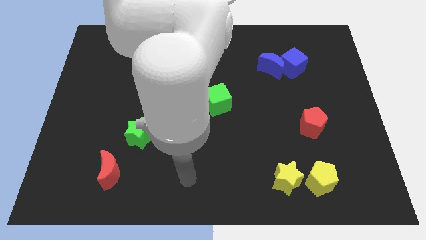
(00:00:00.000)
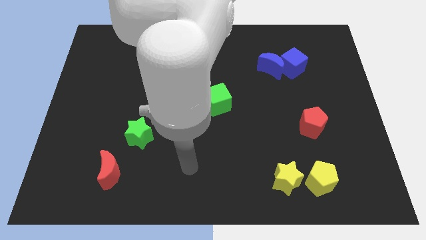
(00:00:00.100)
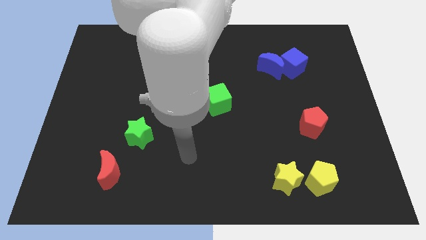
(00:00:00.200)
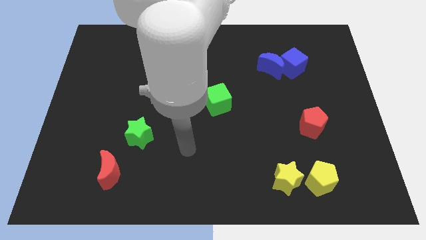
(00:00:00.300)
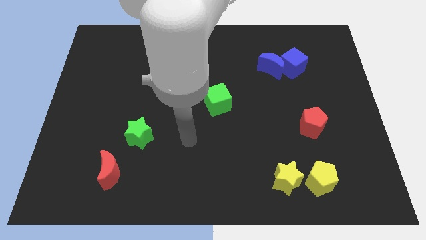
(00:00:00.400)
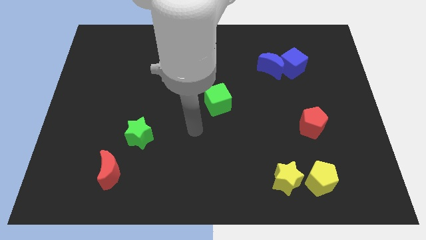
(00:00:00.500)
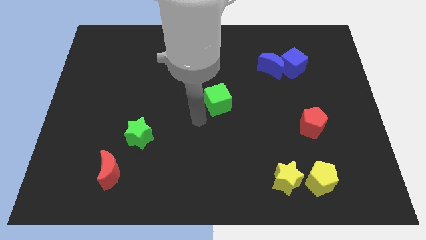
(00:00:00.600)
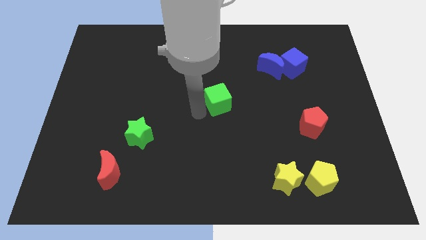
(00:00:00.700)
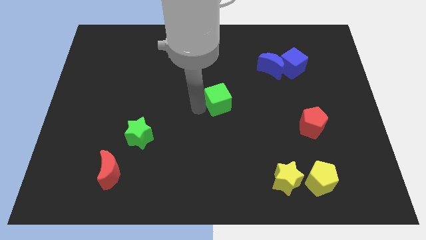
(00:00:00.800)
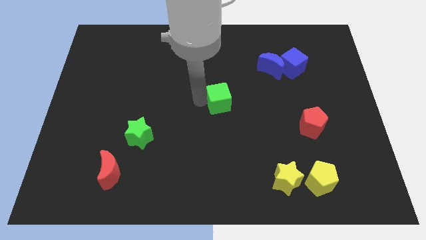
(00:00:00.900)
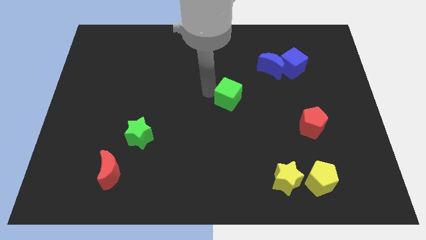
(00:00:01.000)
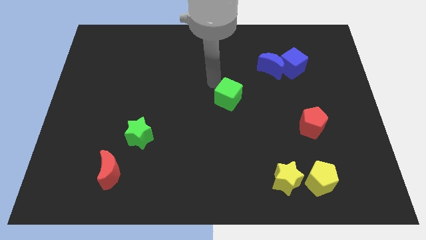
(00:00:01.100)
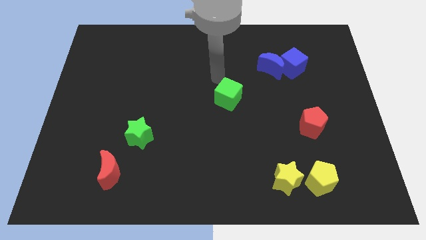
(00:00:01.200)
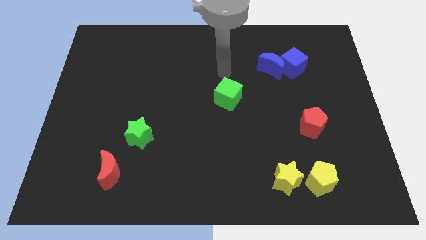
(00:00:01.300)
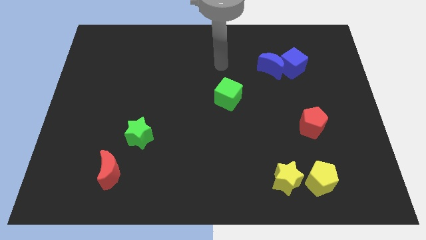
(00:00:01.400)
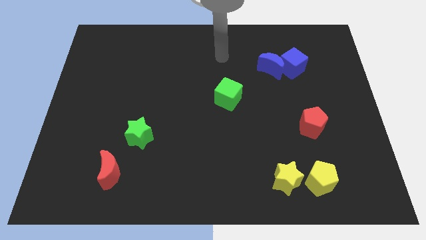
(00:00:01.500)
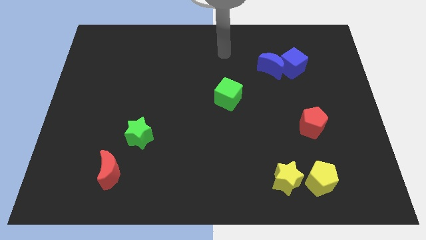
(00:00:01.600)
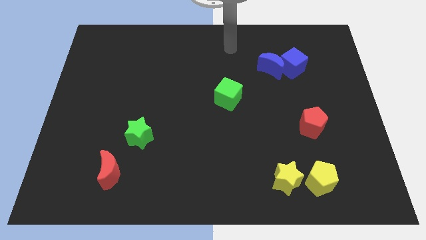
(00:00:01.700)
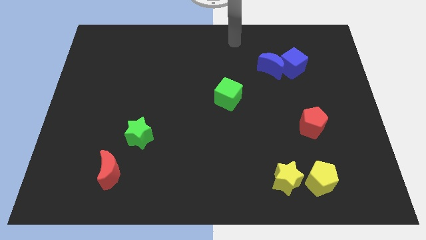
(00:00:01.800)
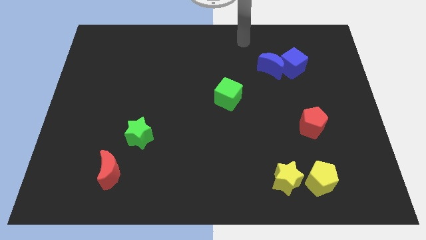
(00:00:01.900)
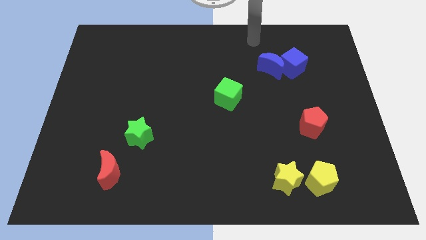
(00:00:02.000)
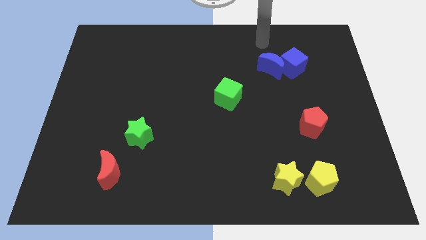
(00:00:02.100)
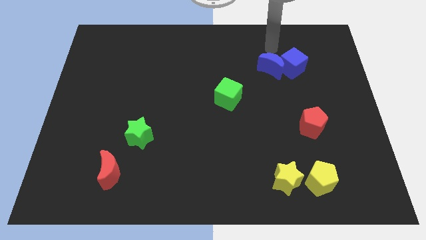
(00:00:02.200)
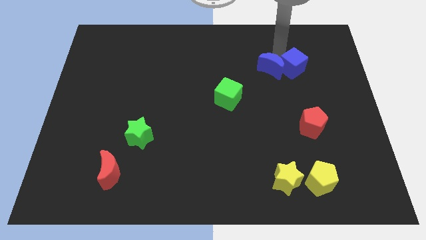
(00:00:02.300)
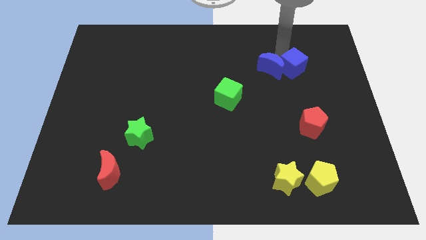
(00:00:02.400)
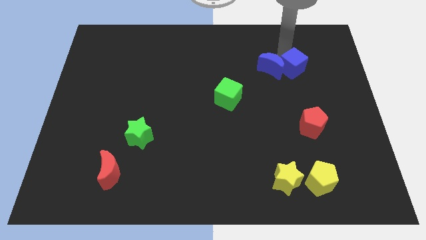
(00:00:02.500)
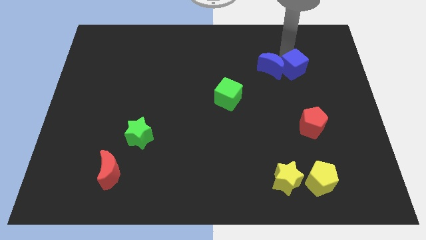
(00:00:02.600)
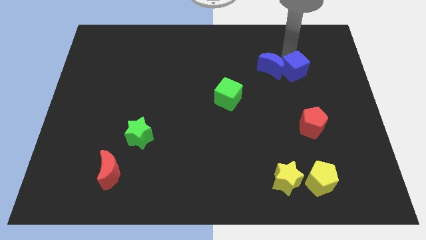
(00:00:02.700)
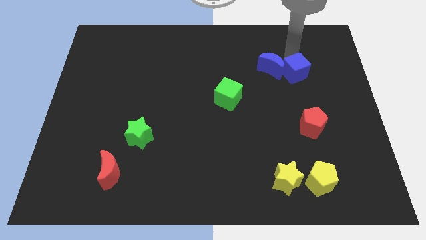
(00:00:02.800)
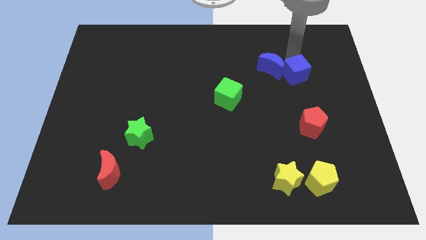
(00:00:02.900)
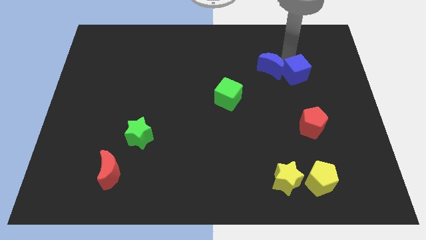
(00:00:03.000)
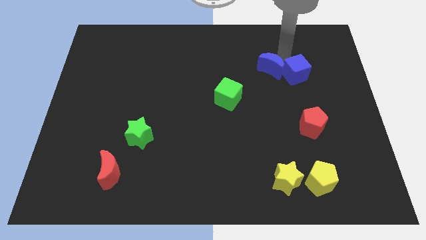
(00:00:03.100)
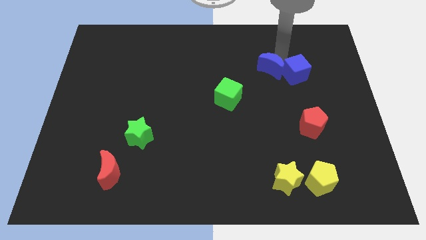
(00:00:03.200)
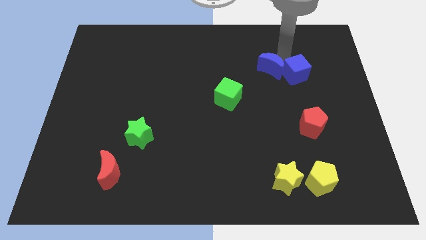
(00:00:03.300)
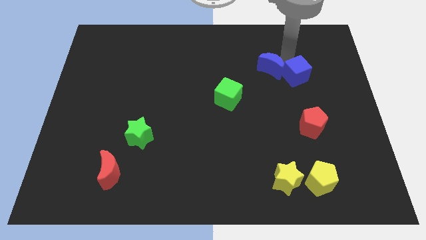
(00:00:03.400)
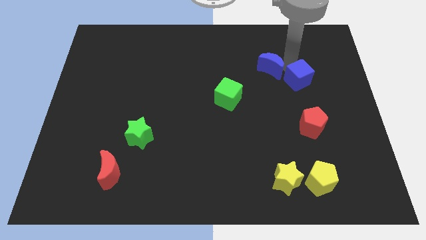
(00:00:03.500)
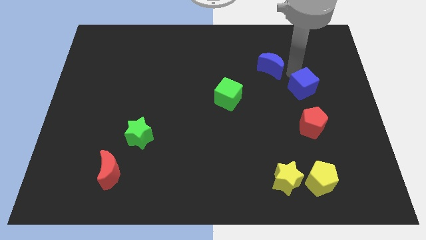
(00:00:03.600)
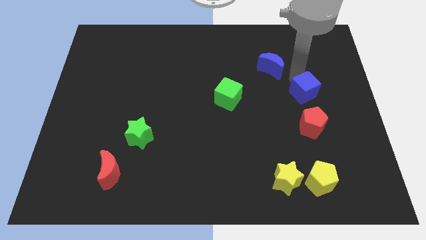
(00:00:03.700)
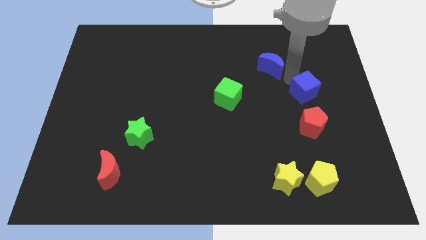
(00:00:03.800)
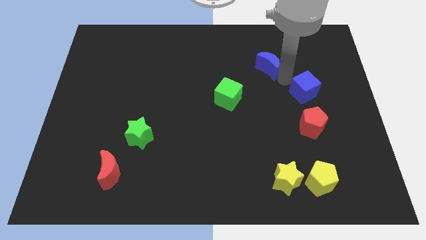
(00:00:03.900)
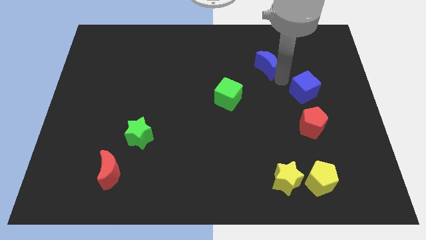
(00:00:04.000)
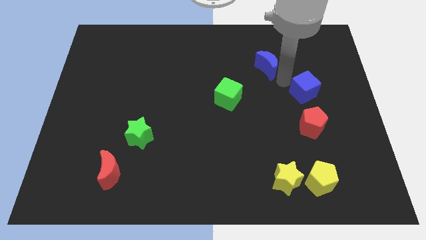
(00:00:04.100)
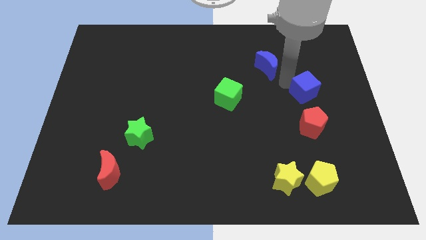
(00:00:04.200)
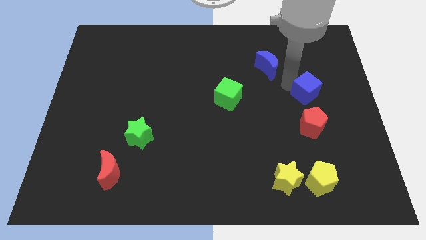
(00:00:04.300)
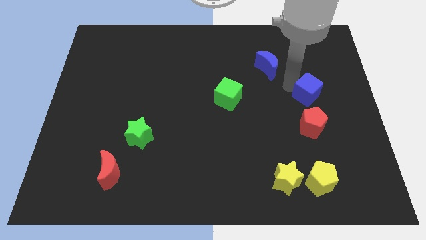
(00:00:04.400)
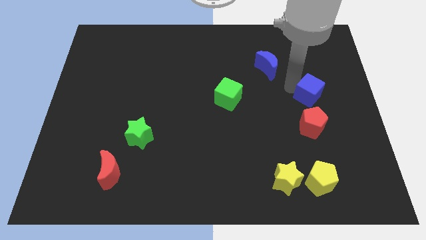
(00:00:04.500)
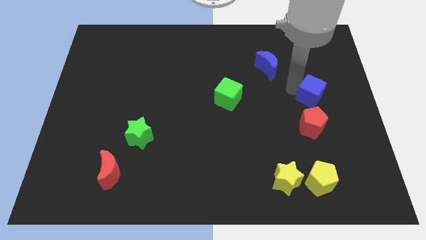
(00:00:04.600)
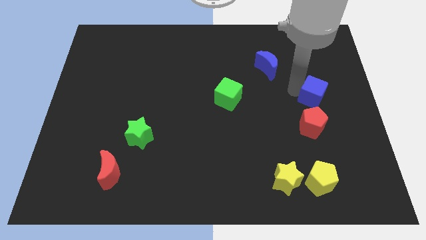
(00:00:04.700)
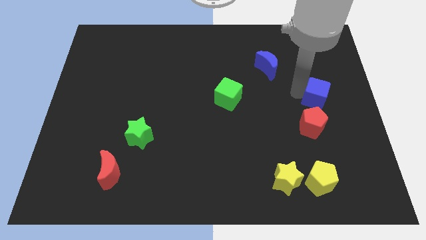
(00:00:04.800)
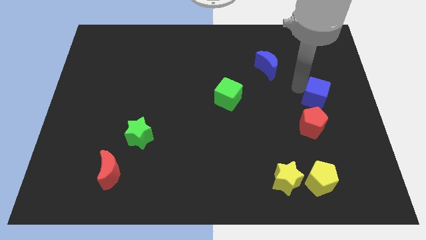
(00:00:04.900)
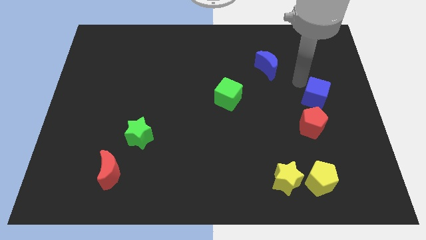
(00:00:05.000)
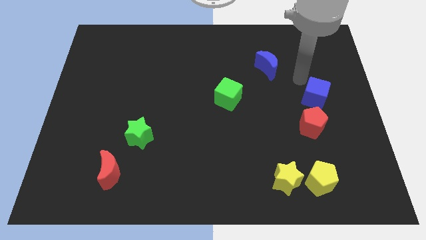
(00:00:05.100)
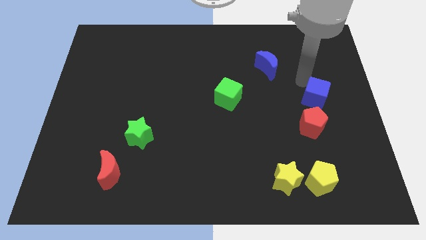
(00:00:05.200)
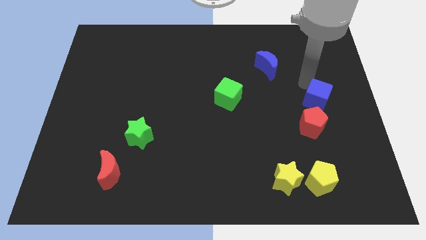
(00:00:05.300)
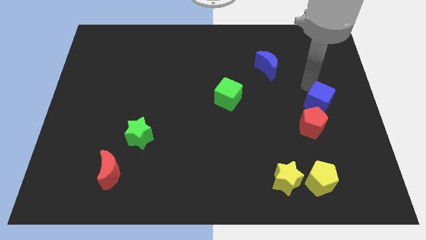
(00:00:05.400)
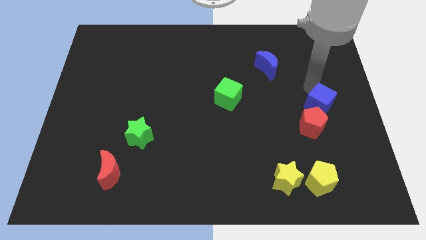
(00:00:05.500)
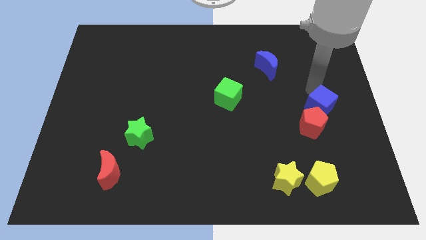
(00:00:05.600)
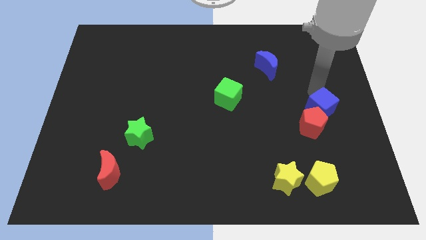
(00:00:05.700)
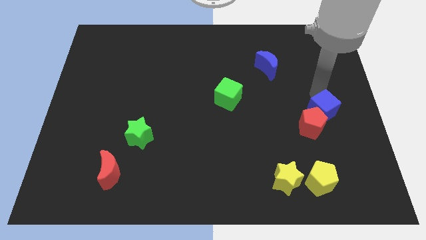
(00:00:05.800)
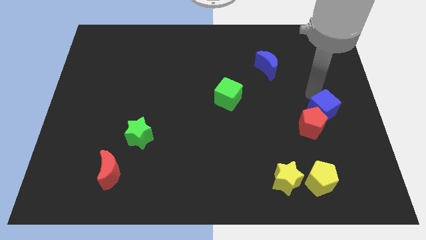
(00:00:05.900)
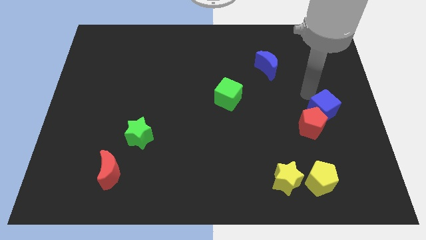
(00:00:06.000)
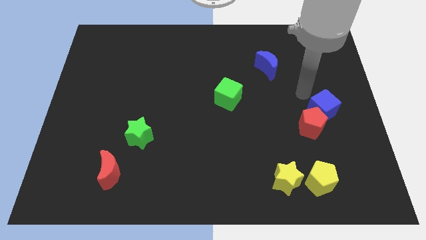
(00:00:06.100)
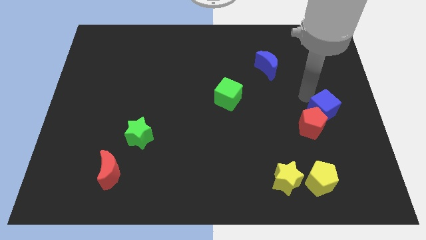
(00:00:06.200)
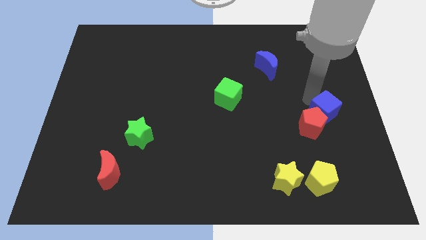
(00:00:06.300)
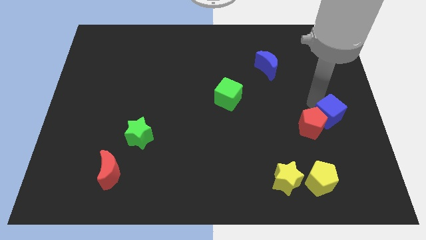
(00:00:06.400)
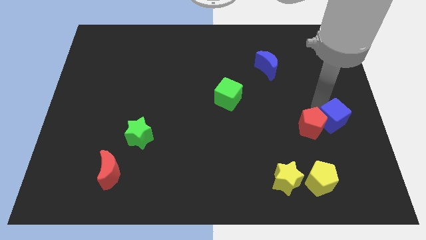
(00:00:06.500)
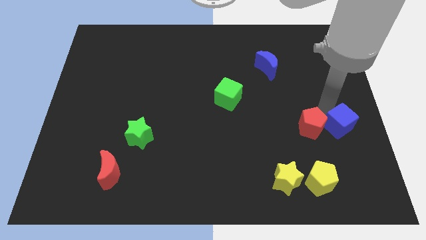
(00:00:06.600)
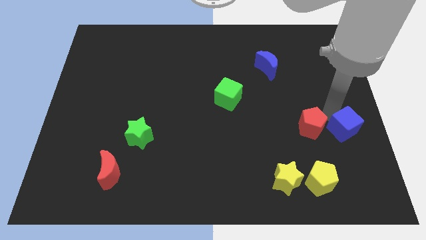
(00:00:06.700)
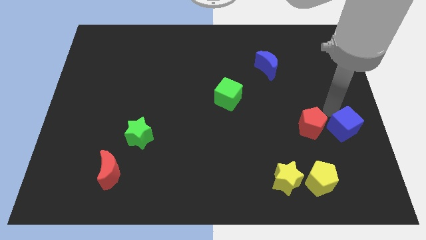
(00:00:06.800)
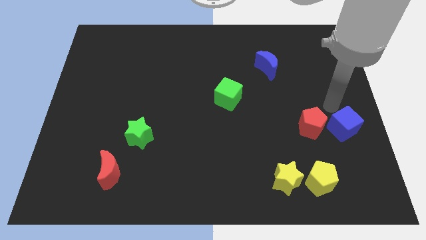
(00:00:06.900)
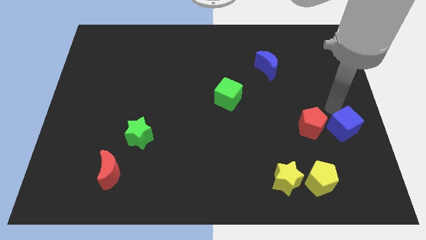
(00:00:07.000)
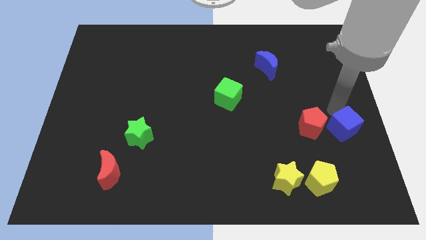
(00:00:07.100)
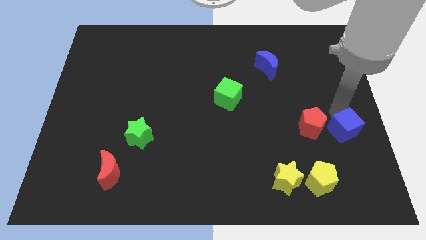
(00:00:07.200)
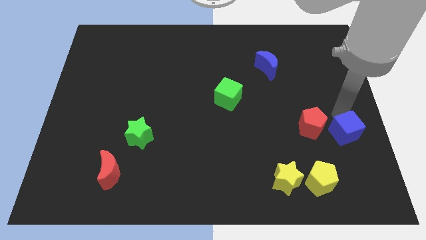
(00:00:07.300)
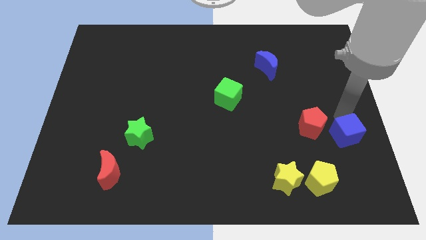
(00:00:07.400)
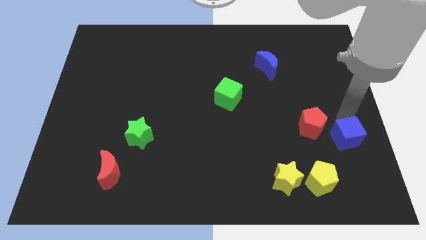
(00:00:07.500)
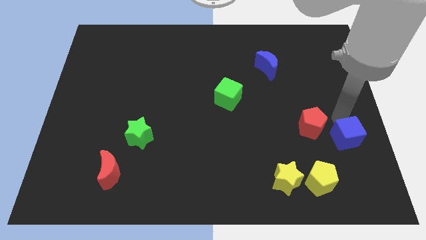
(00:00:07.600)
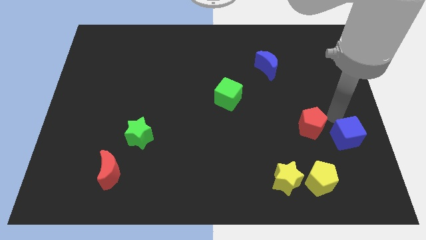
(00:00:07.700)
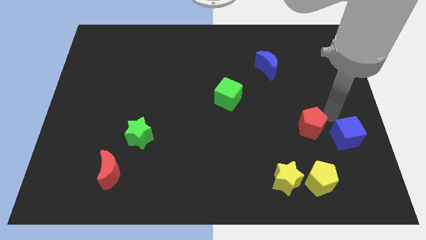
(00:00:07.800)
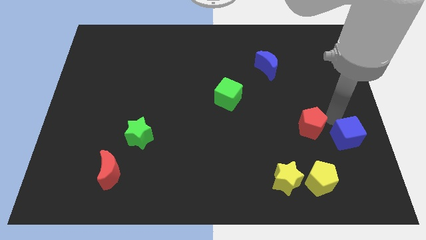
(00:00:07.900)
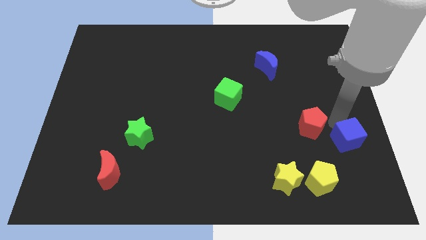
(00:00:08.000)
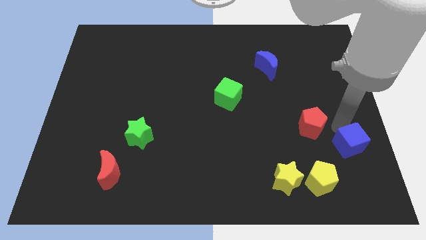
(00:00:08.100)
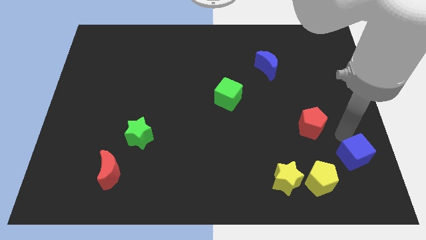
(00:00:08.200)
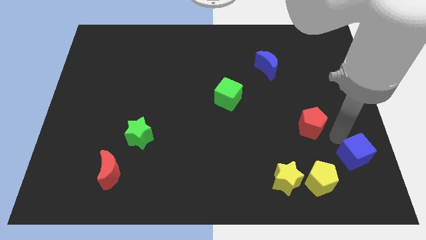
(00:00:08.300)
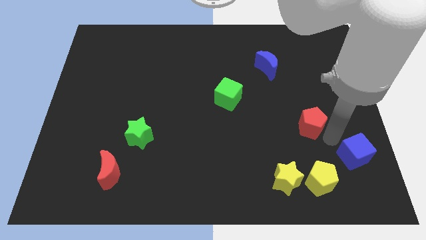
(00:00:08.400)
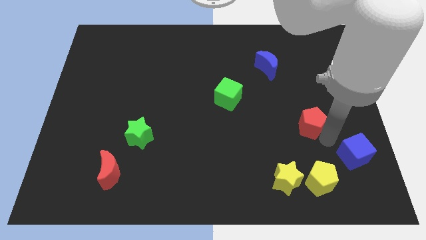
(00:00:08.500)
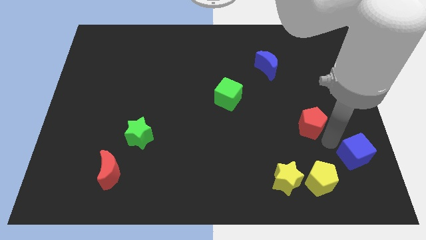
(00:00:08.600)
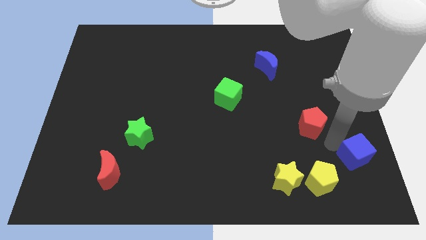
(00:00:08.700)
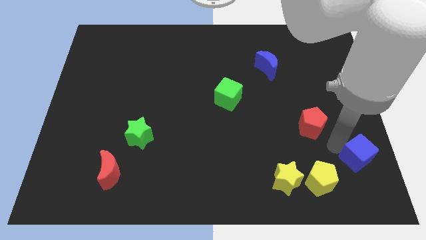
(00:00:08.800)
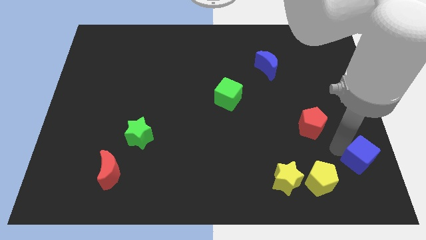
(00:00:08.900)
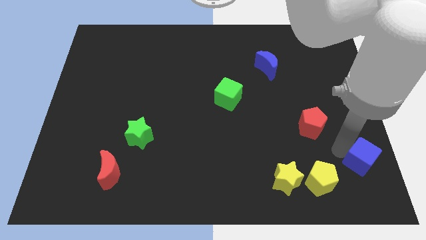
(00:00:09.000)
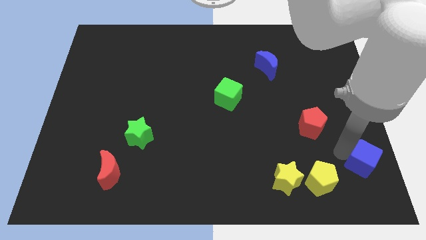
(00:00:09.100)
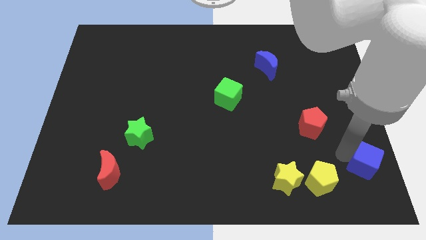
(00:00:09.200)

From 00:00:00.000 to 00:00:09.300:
put the blue cube to the lower right corner
